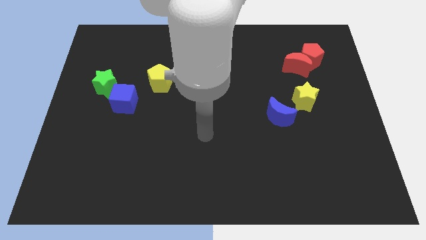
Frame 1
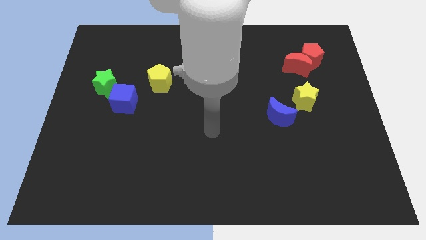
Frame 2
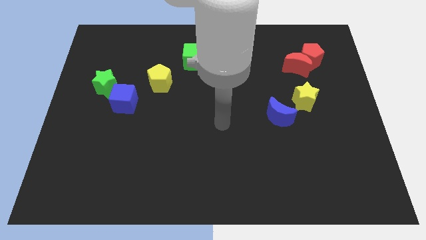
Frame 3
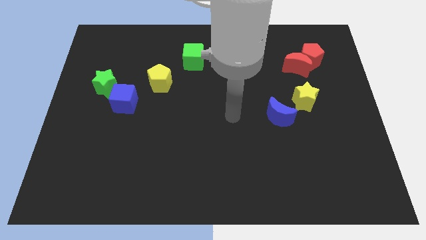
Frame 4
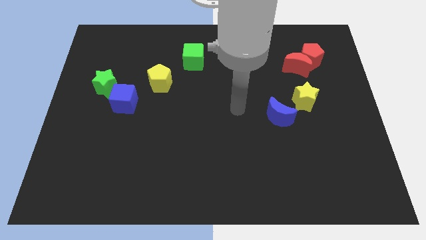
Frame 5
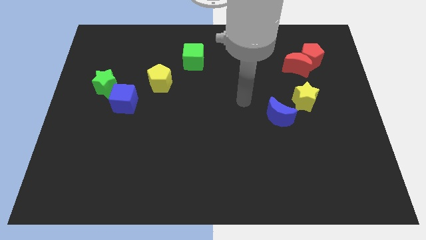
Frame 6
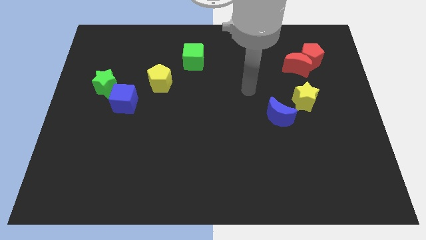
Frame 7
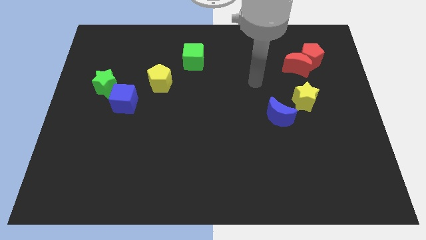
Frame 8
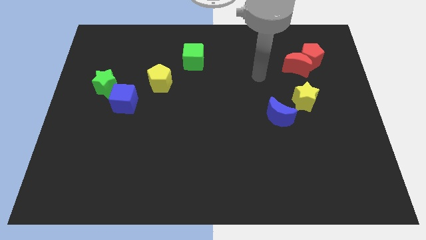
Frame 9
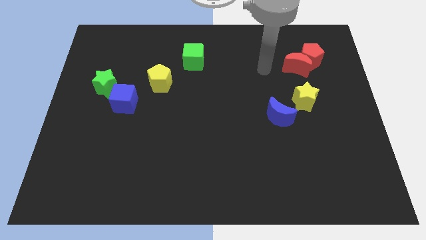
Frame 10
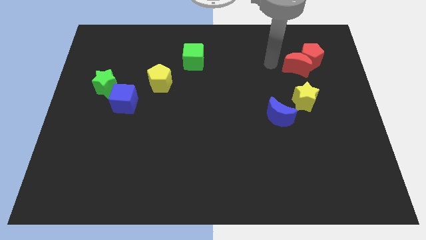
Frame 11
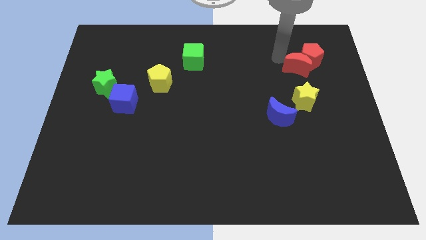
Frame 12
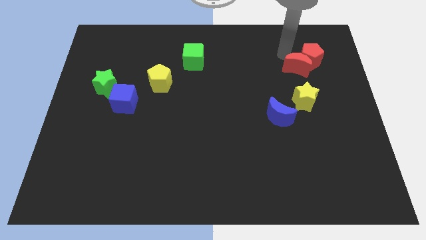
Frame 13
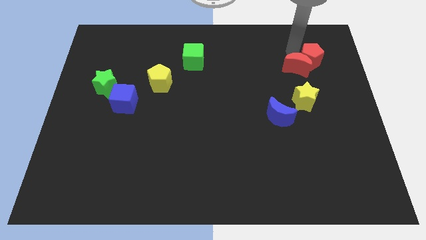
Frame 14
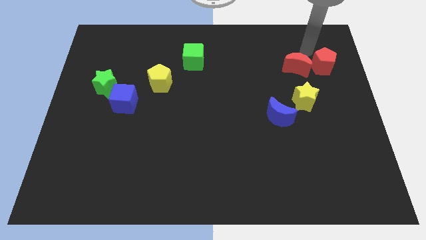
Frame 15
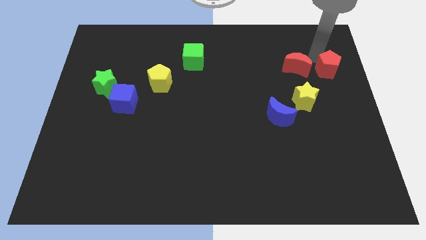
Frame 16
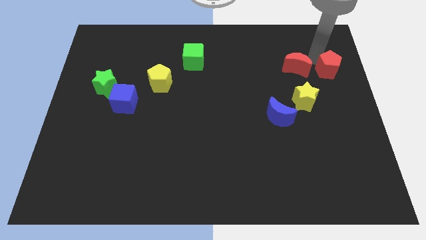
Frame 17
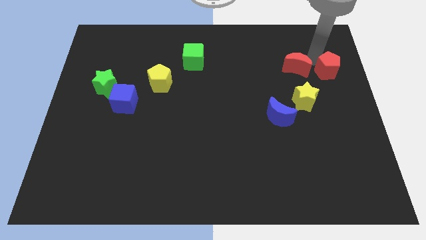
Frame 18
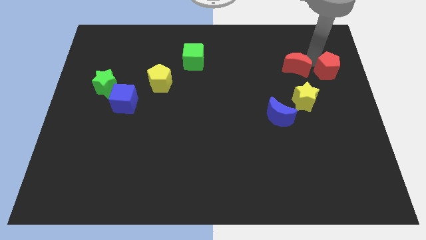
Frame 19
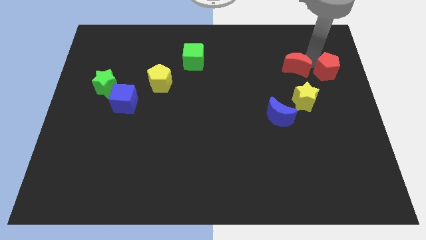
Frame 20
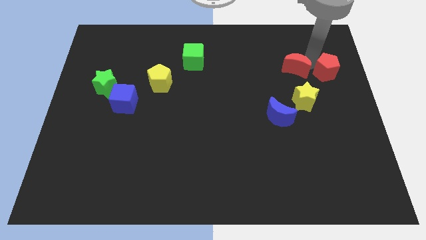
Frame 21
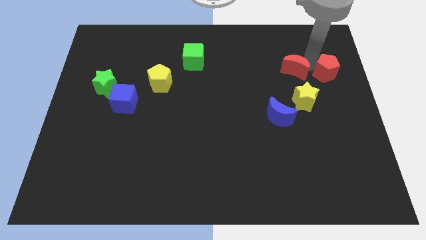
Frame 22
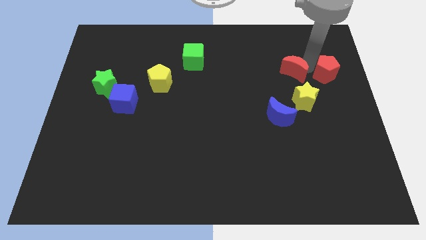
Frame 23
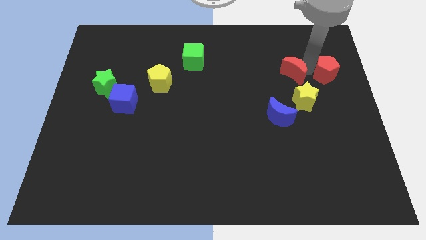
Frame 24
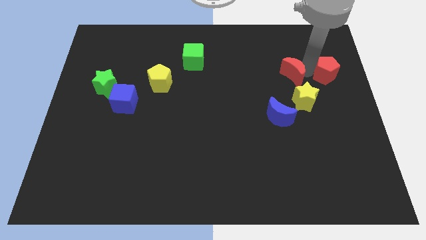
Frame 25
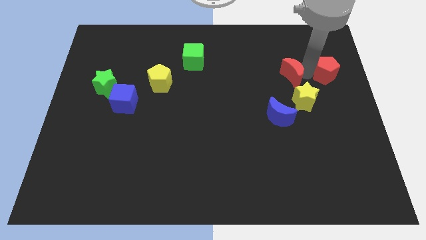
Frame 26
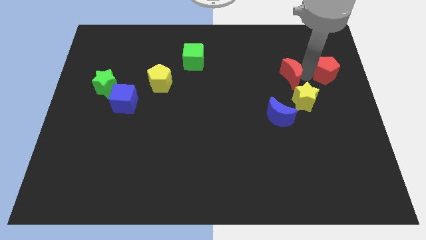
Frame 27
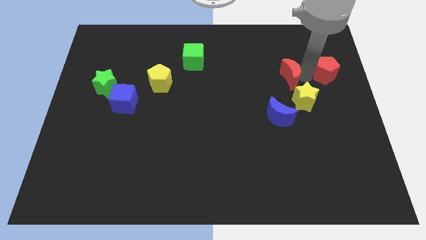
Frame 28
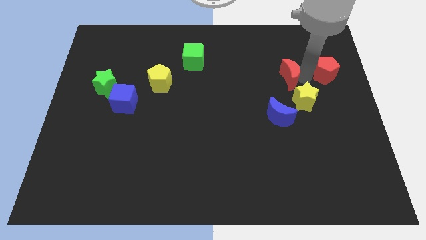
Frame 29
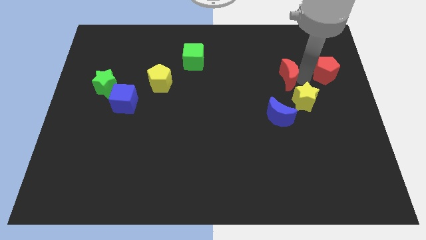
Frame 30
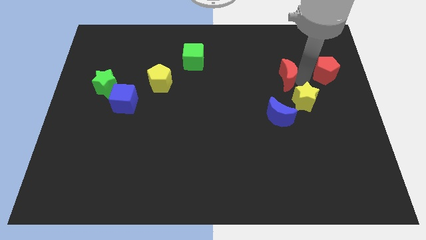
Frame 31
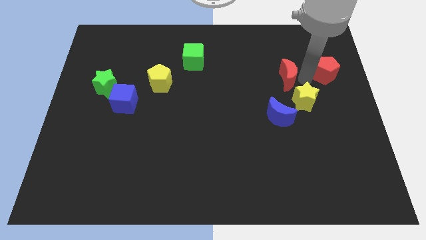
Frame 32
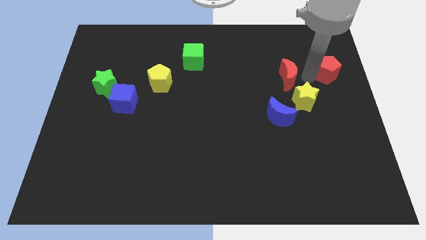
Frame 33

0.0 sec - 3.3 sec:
move the red moon away from the red pentagon

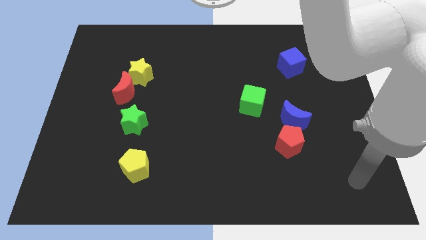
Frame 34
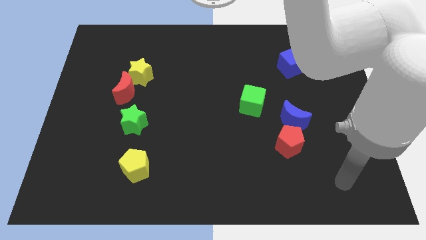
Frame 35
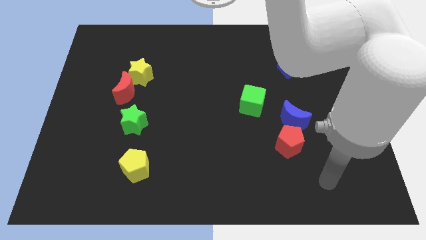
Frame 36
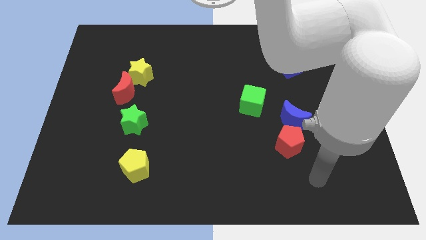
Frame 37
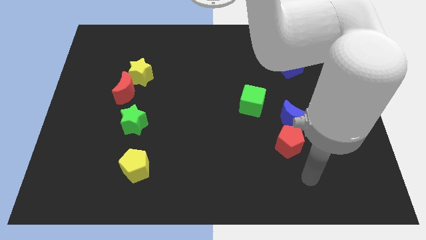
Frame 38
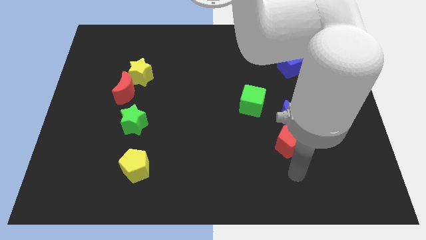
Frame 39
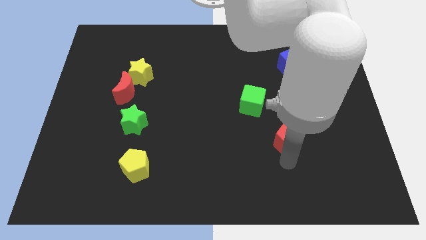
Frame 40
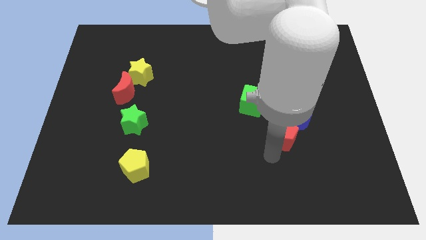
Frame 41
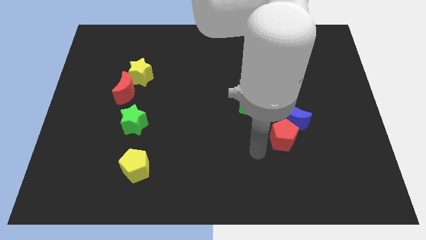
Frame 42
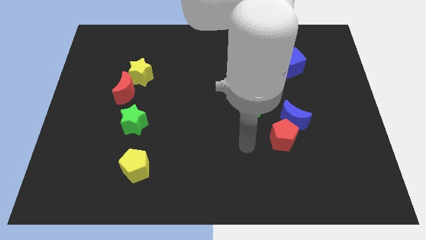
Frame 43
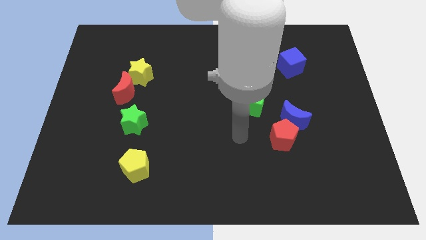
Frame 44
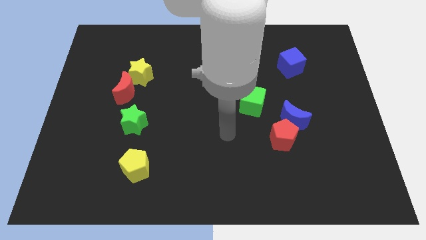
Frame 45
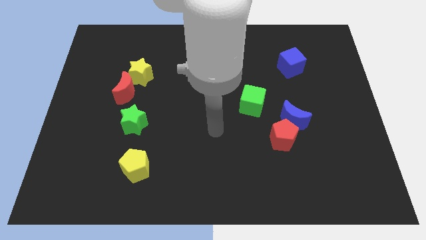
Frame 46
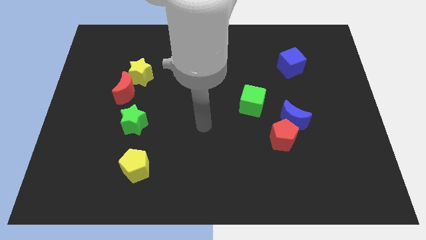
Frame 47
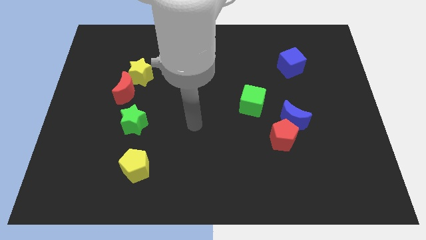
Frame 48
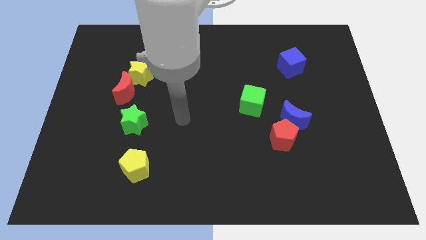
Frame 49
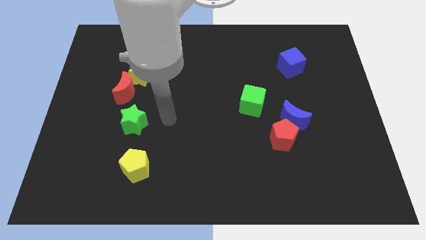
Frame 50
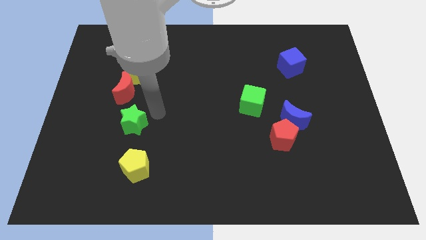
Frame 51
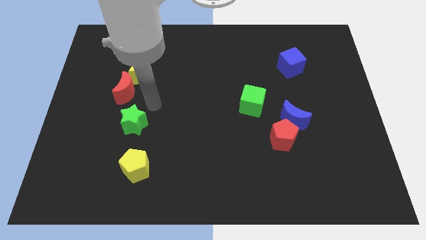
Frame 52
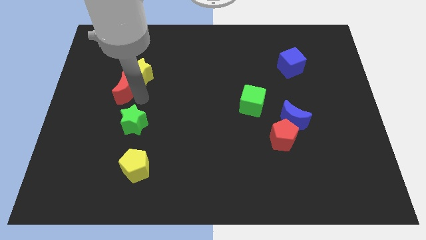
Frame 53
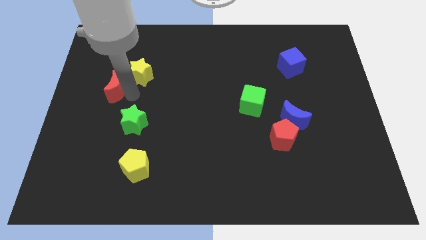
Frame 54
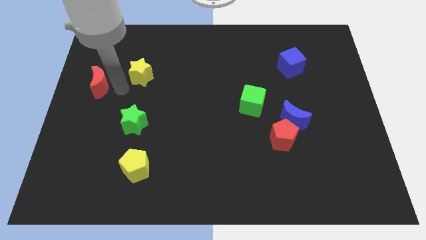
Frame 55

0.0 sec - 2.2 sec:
pull the yellow star apart from the red moon

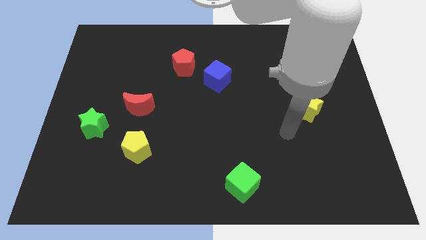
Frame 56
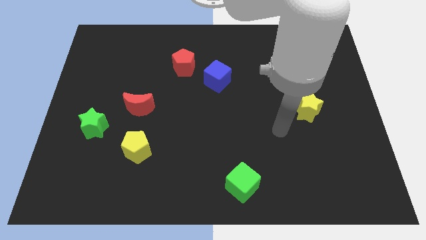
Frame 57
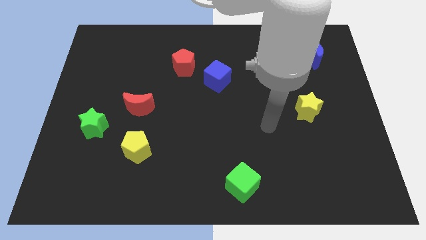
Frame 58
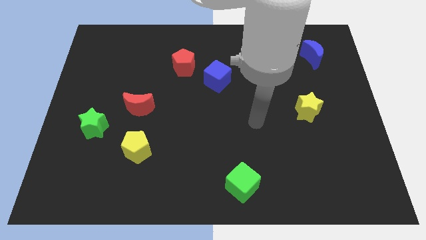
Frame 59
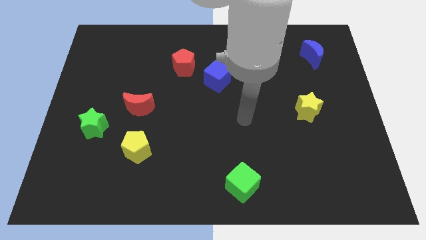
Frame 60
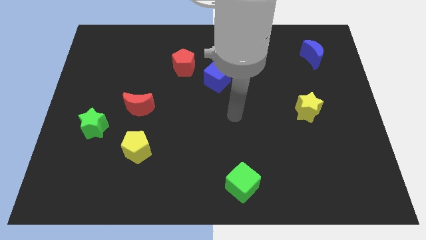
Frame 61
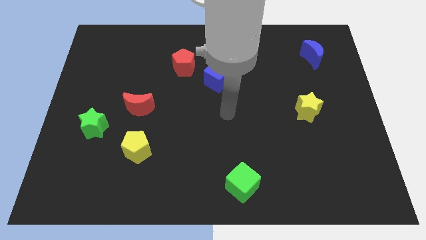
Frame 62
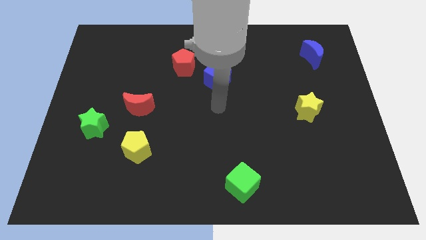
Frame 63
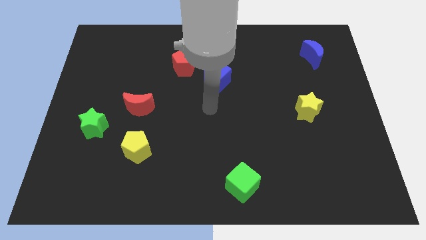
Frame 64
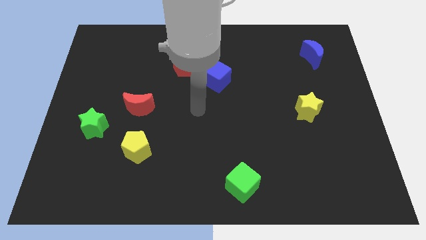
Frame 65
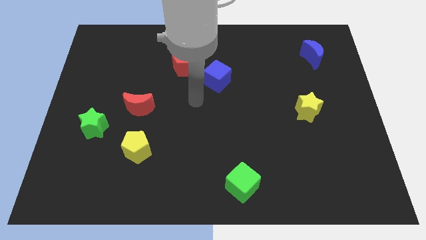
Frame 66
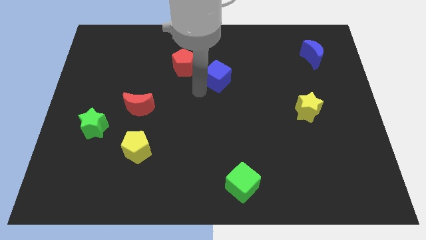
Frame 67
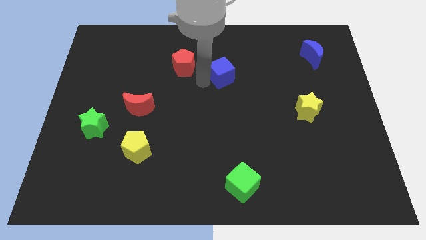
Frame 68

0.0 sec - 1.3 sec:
move the red pentagon away from the blue cube

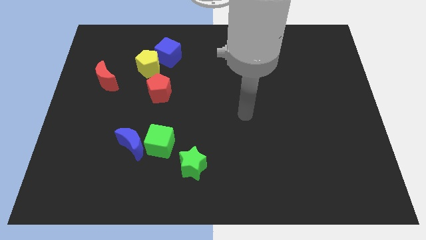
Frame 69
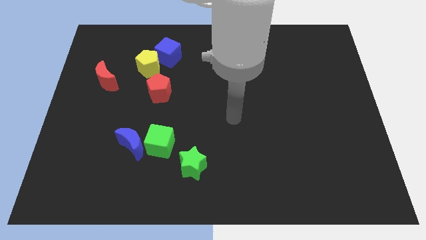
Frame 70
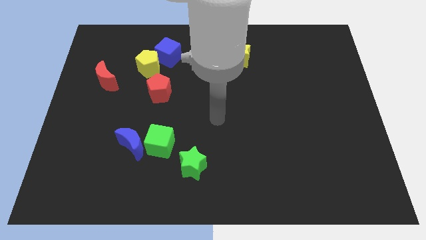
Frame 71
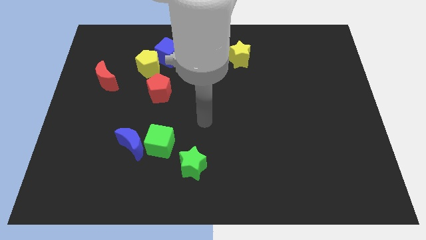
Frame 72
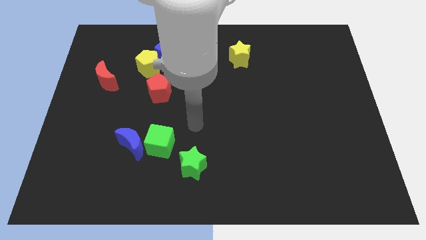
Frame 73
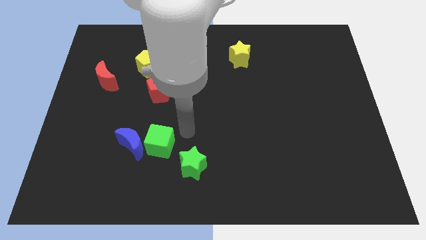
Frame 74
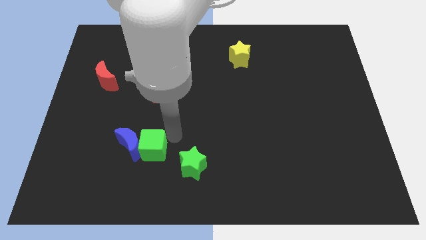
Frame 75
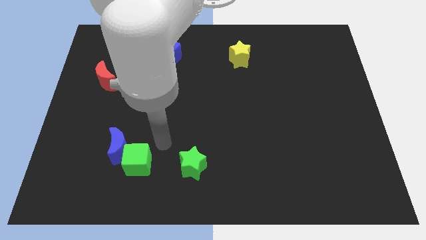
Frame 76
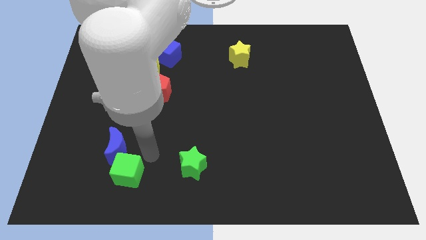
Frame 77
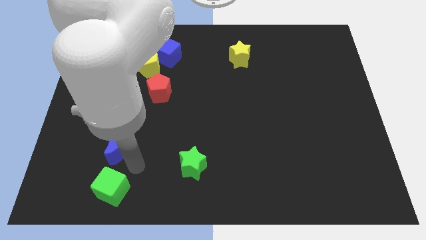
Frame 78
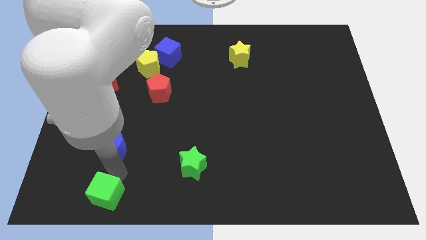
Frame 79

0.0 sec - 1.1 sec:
separate the blue moon from the green cube

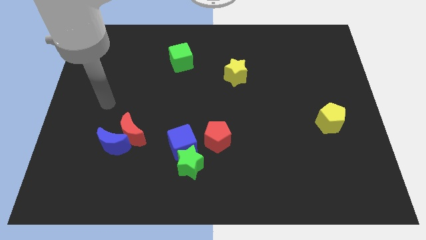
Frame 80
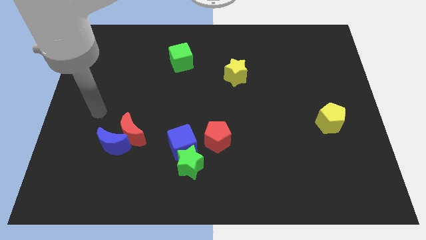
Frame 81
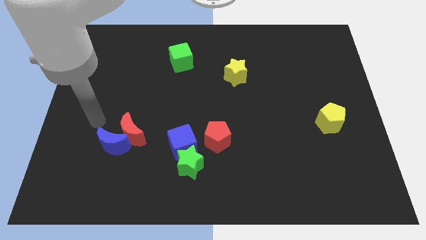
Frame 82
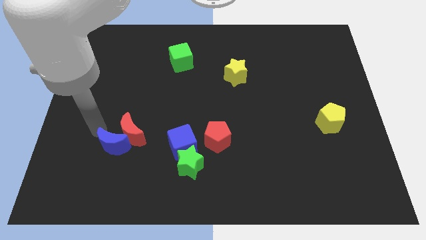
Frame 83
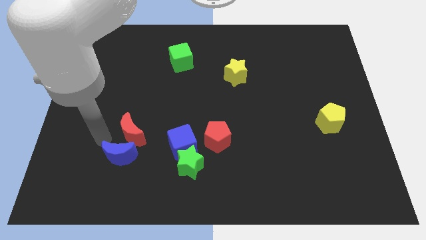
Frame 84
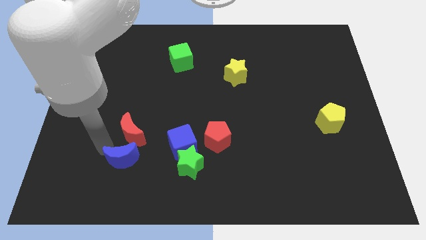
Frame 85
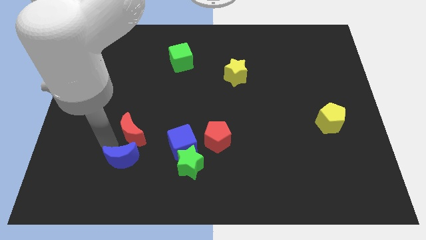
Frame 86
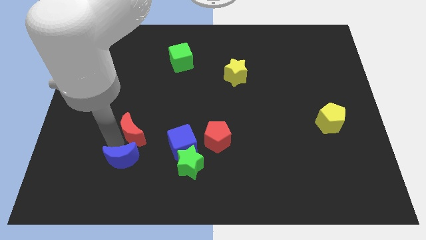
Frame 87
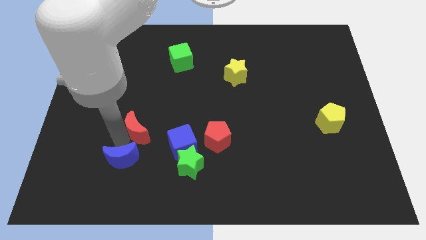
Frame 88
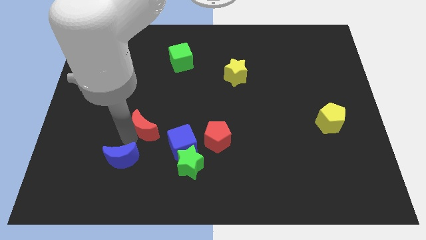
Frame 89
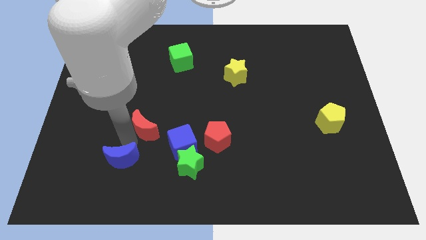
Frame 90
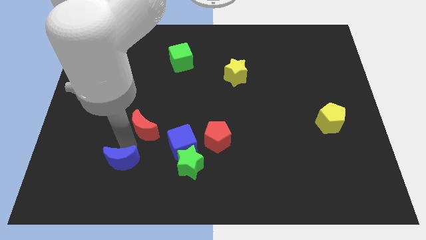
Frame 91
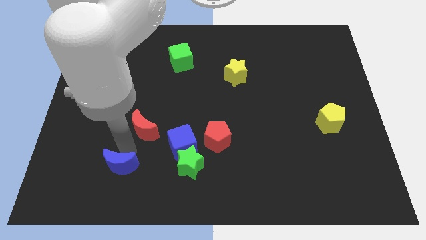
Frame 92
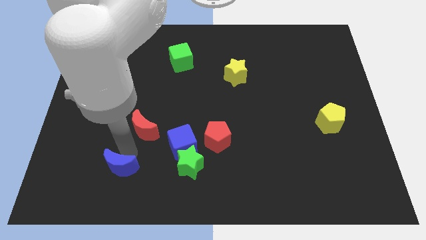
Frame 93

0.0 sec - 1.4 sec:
move the red moon away from the blue moon

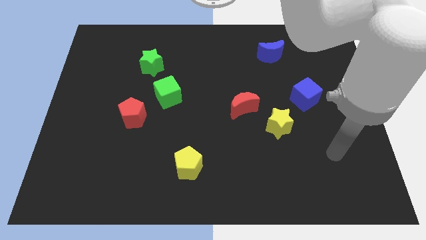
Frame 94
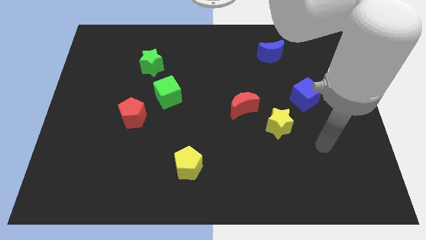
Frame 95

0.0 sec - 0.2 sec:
pull the red moon apart from the yellow star
